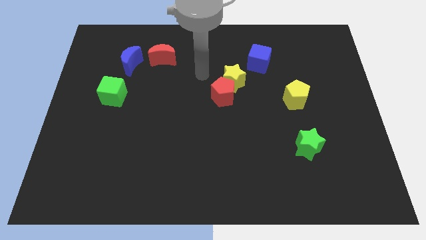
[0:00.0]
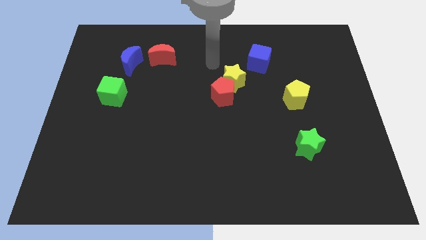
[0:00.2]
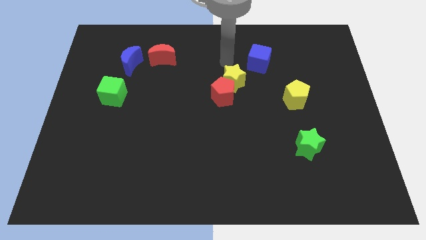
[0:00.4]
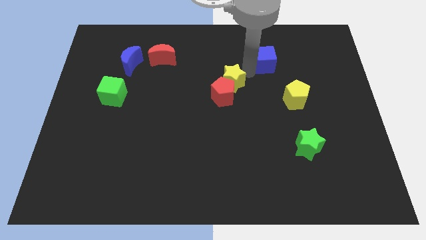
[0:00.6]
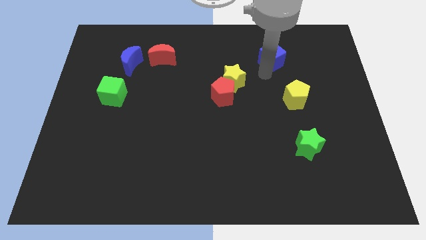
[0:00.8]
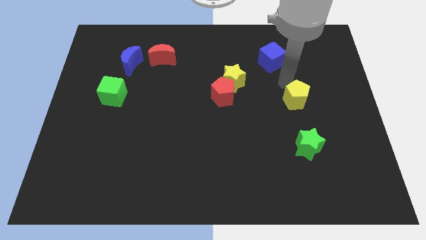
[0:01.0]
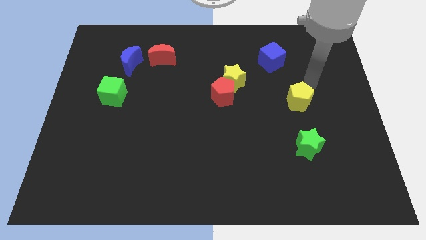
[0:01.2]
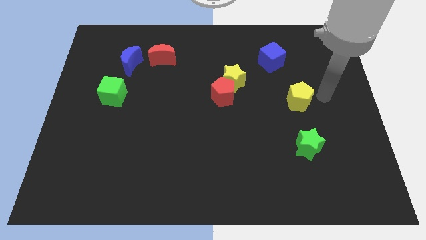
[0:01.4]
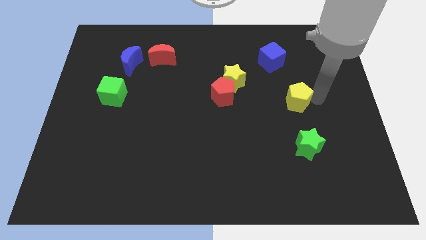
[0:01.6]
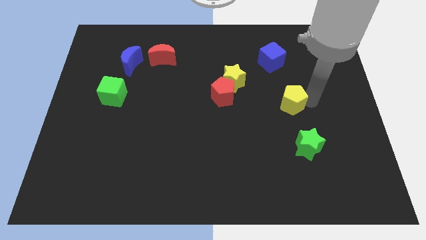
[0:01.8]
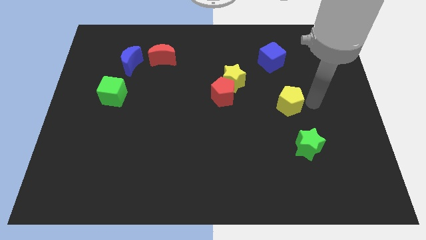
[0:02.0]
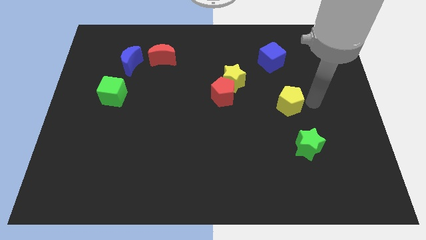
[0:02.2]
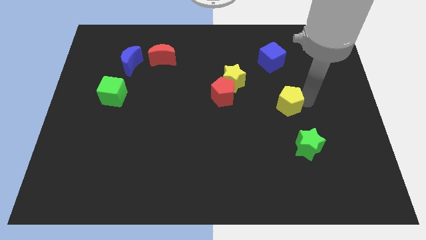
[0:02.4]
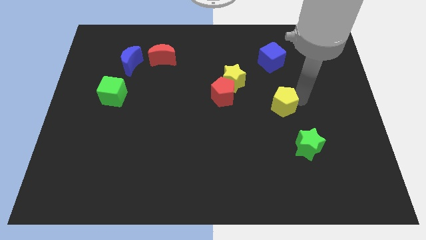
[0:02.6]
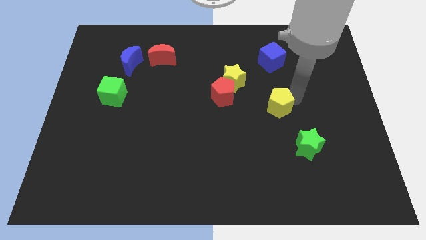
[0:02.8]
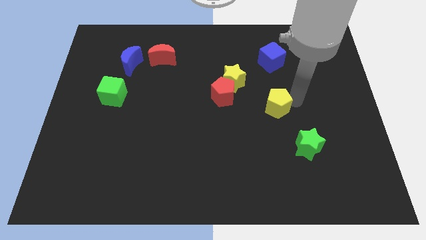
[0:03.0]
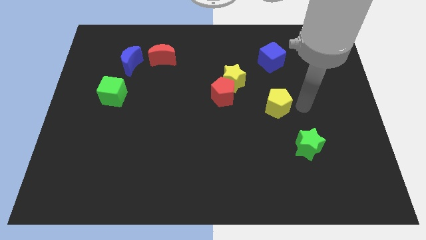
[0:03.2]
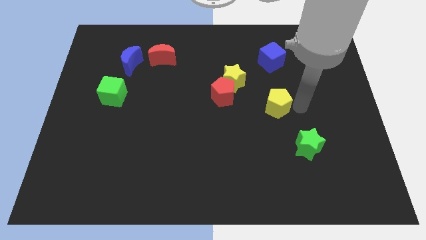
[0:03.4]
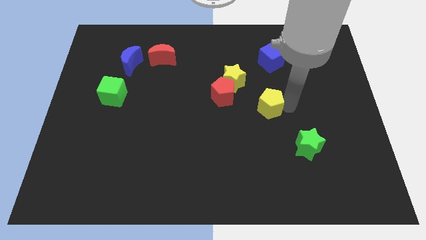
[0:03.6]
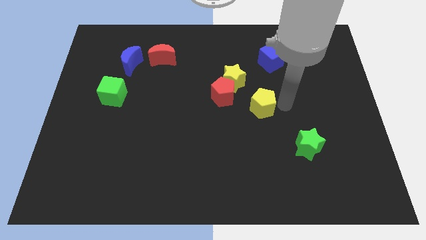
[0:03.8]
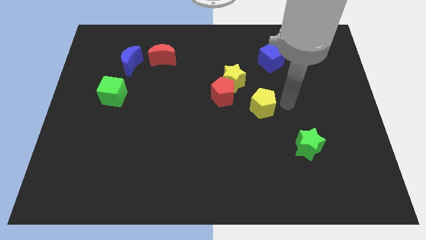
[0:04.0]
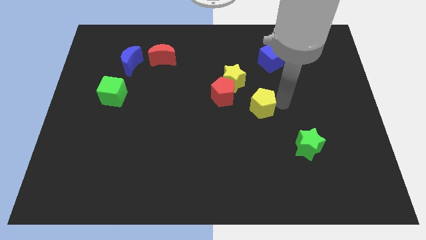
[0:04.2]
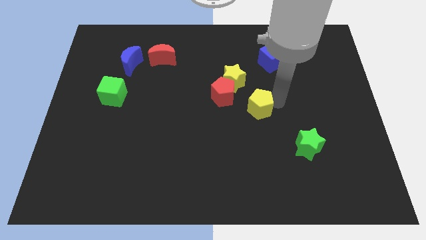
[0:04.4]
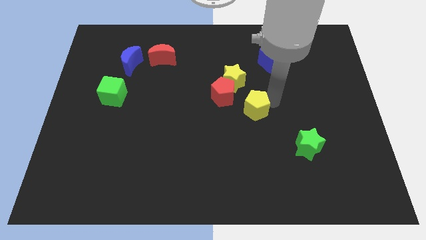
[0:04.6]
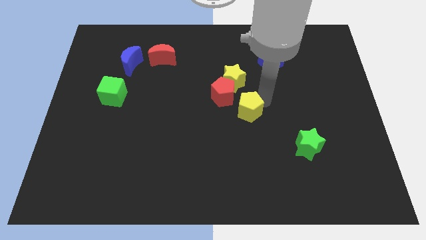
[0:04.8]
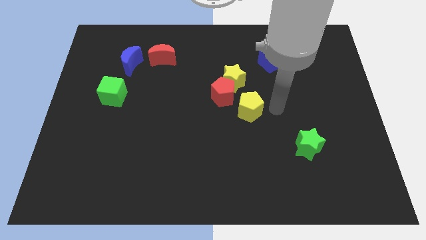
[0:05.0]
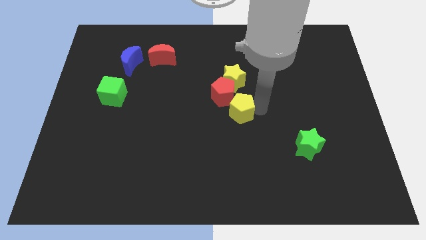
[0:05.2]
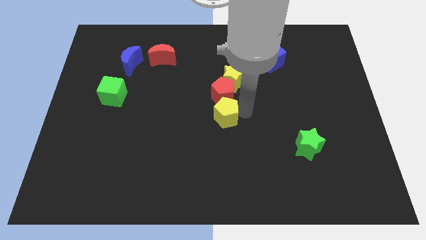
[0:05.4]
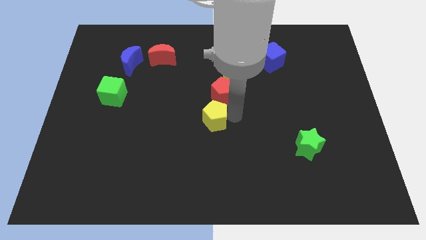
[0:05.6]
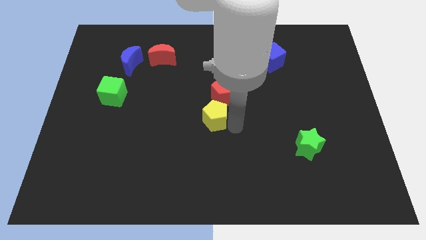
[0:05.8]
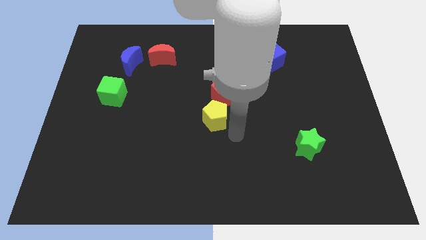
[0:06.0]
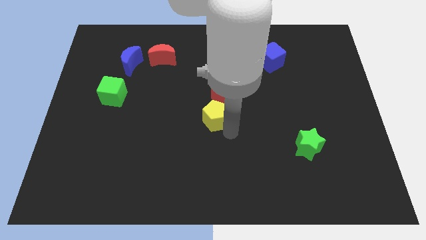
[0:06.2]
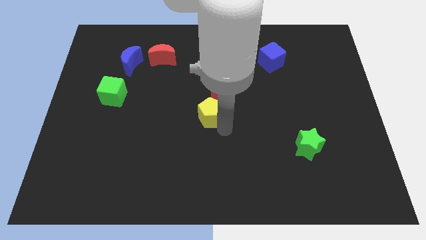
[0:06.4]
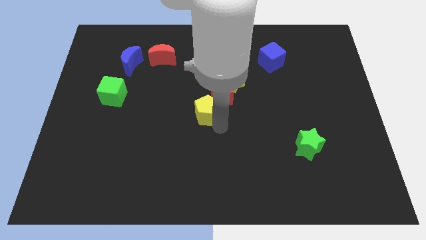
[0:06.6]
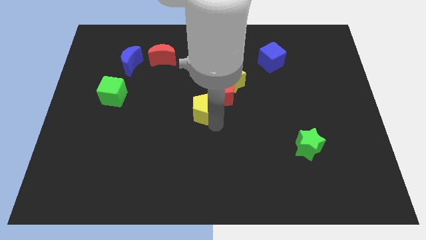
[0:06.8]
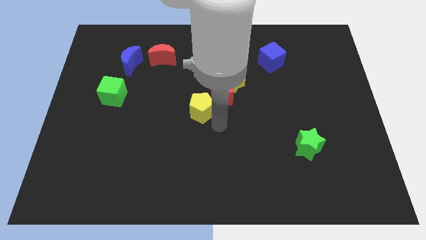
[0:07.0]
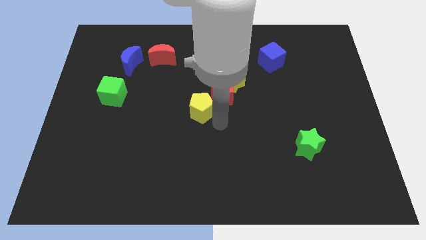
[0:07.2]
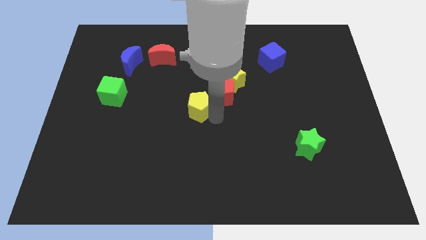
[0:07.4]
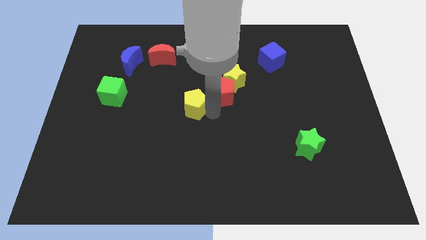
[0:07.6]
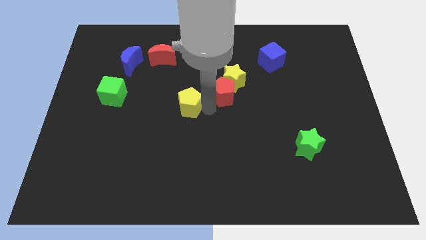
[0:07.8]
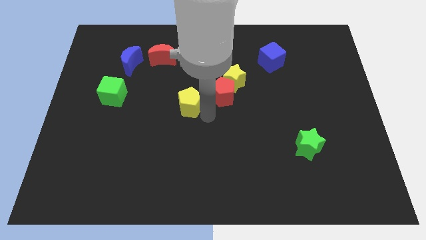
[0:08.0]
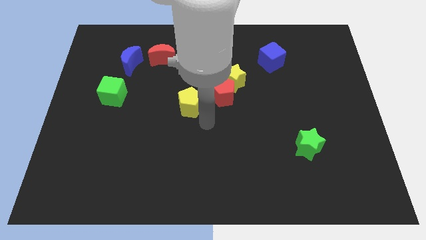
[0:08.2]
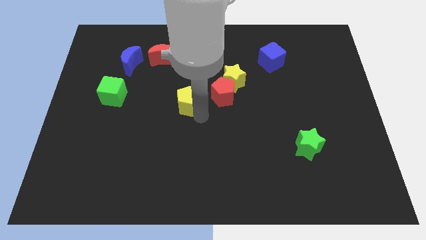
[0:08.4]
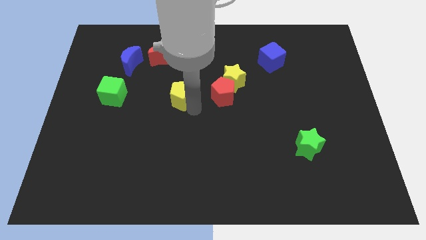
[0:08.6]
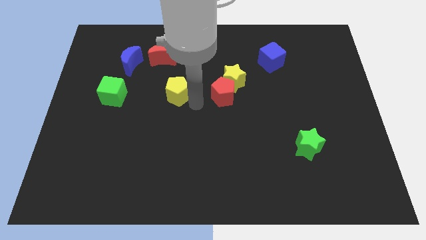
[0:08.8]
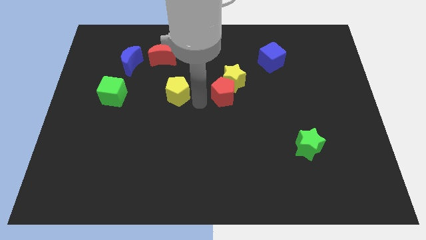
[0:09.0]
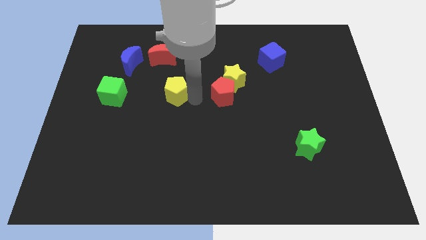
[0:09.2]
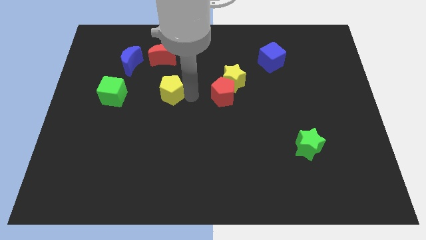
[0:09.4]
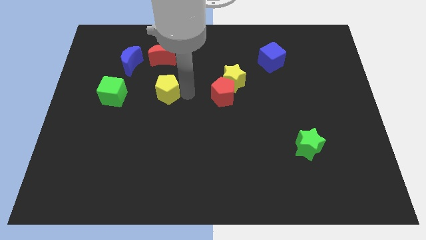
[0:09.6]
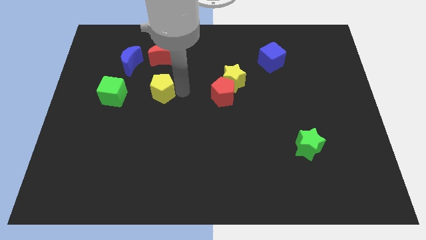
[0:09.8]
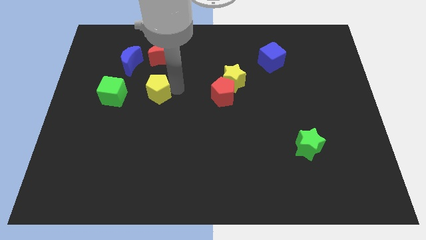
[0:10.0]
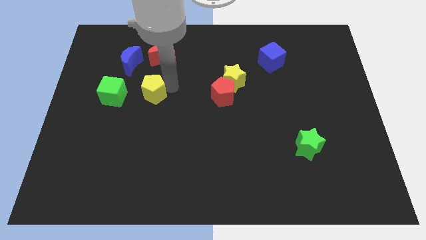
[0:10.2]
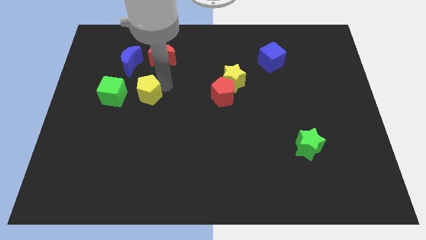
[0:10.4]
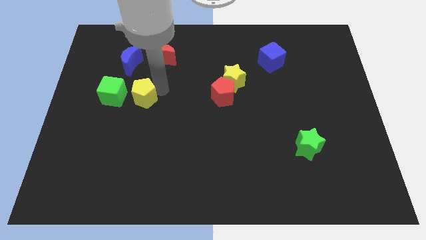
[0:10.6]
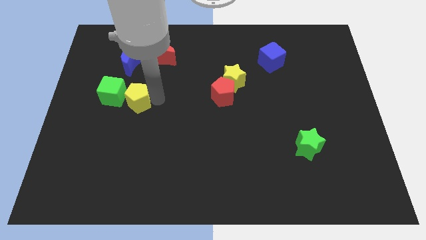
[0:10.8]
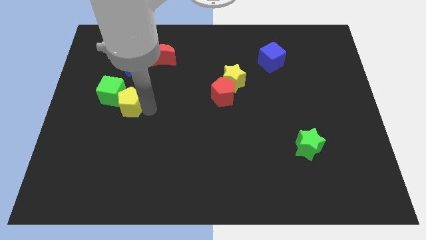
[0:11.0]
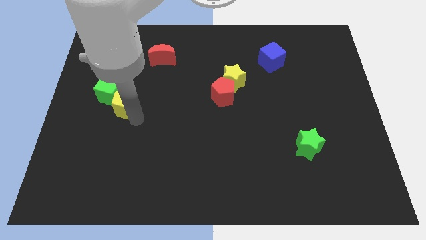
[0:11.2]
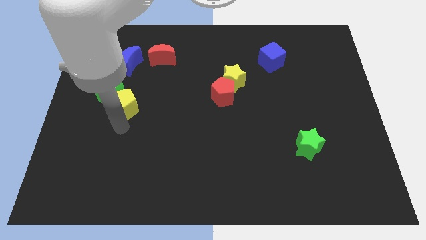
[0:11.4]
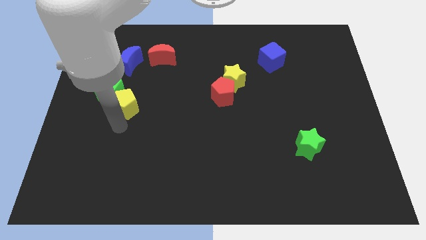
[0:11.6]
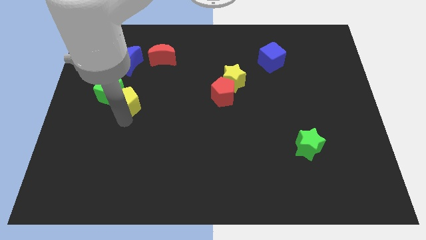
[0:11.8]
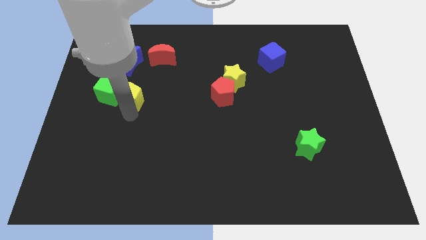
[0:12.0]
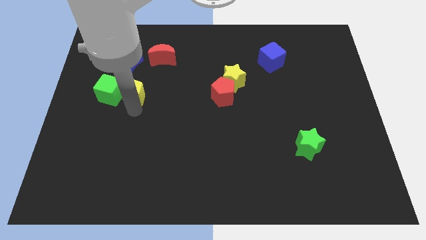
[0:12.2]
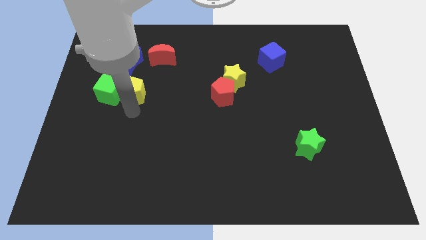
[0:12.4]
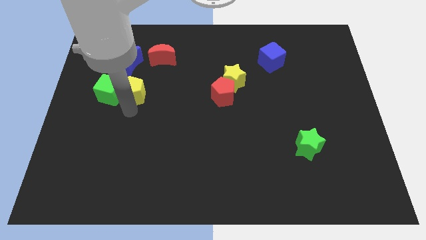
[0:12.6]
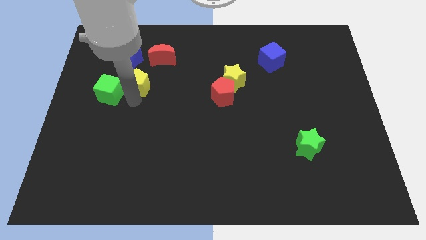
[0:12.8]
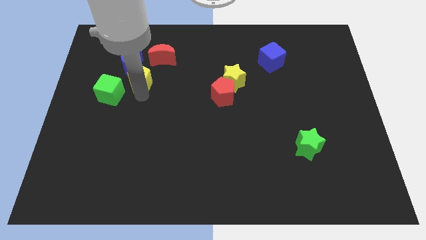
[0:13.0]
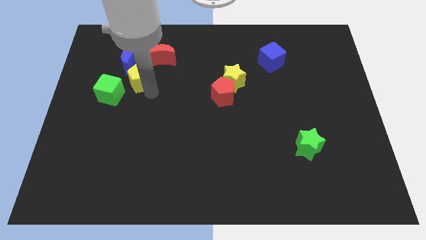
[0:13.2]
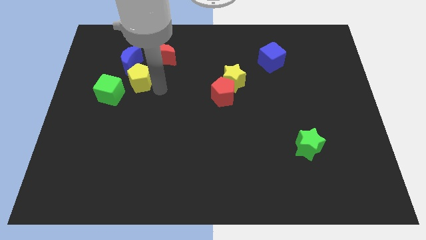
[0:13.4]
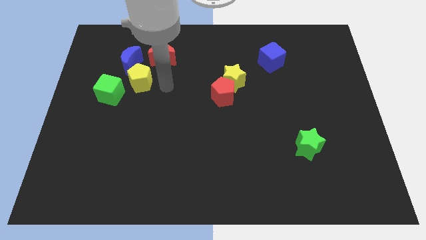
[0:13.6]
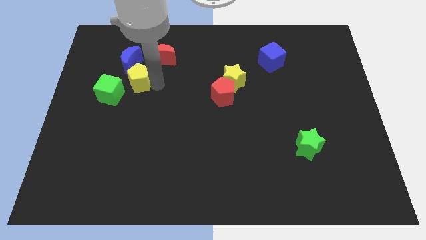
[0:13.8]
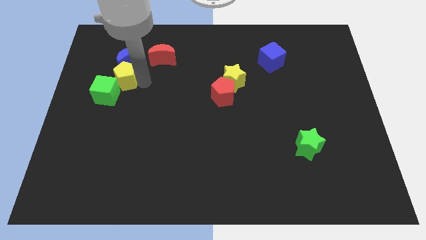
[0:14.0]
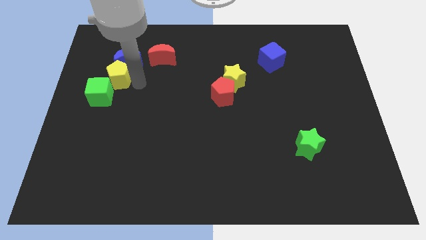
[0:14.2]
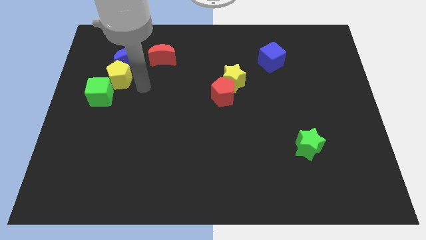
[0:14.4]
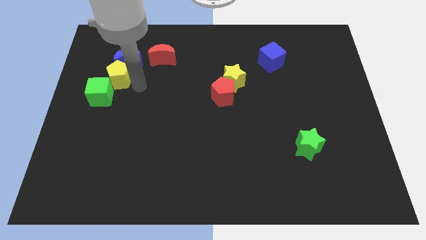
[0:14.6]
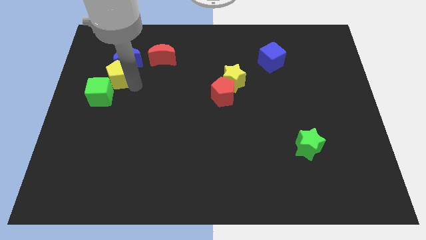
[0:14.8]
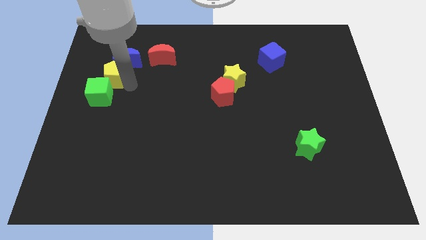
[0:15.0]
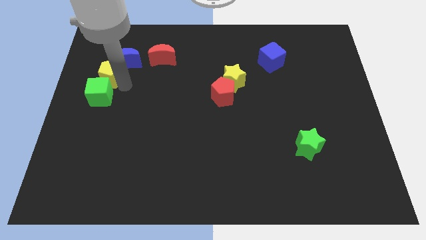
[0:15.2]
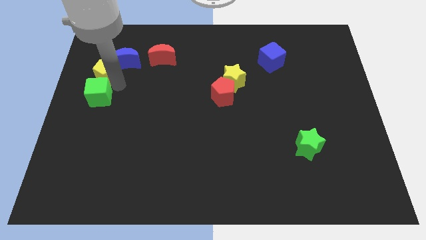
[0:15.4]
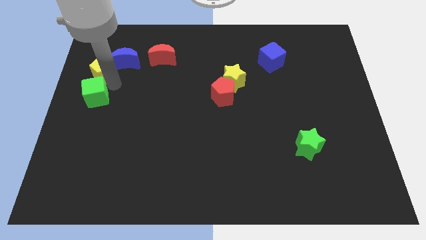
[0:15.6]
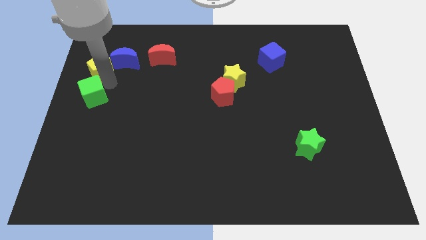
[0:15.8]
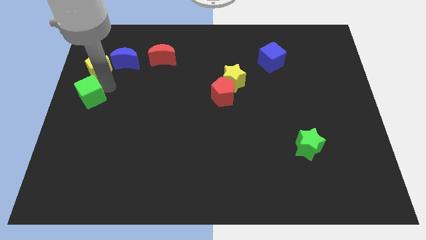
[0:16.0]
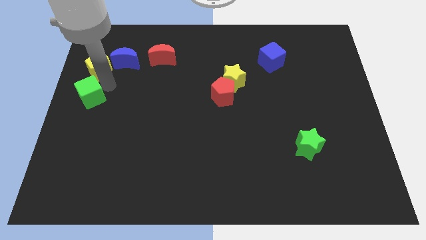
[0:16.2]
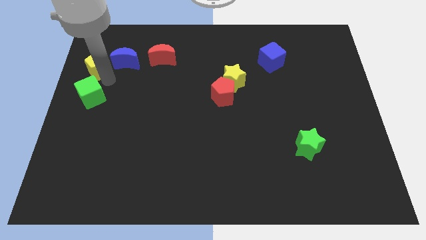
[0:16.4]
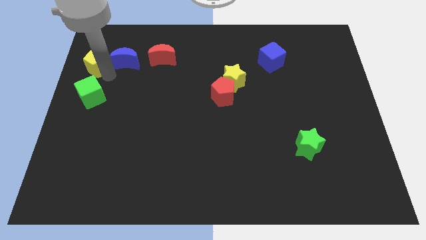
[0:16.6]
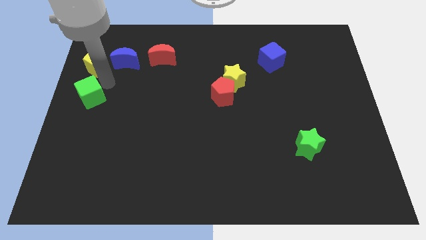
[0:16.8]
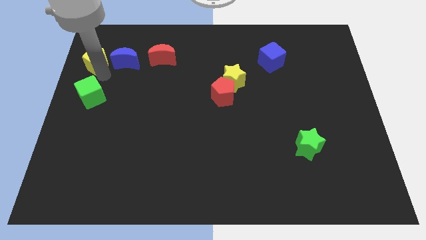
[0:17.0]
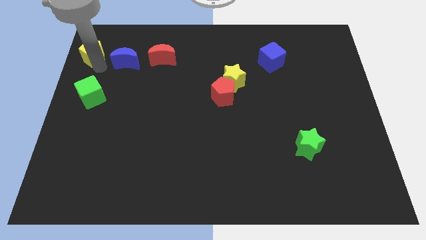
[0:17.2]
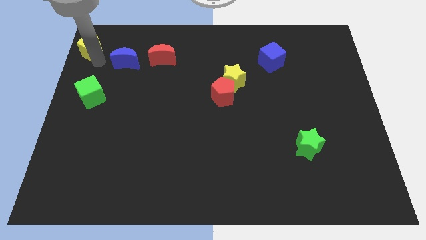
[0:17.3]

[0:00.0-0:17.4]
move the yellow pentagon to the top left corner
